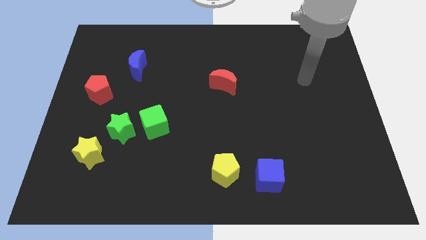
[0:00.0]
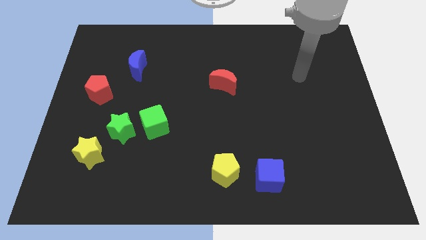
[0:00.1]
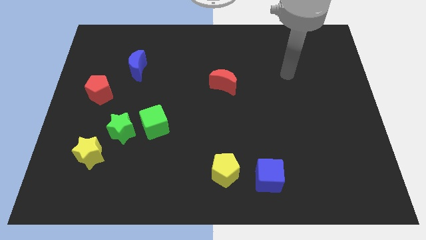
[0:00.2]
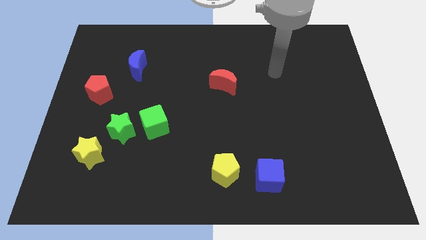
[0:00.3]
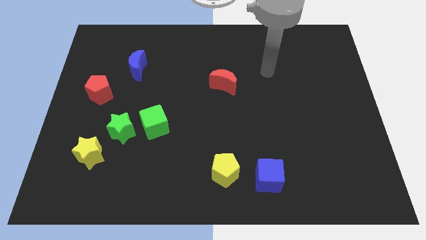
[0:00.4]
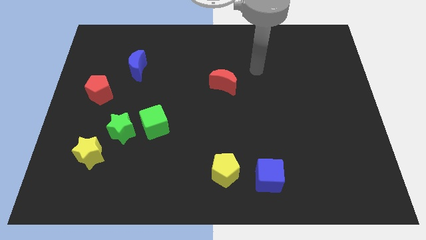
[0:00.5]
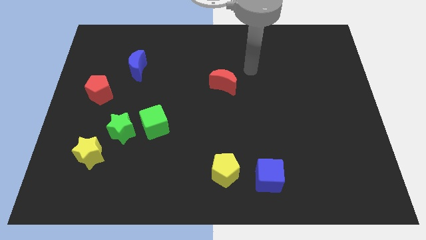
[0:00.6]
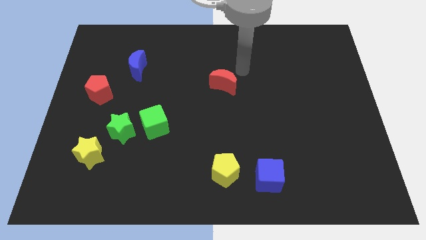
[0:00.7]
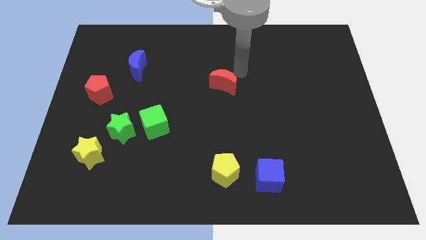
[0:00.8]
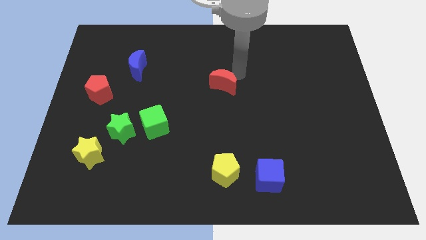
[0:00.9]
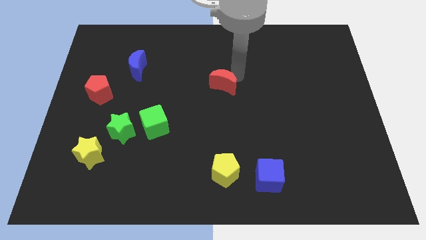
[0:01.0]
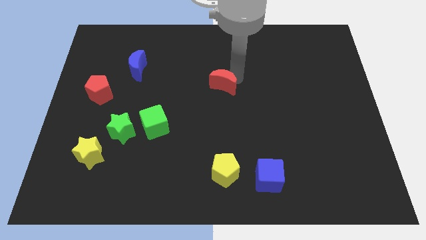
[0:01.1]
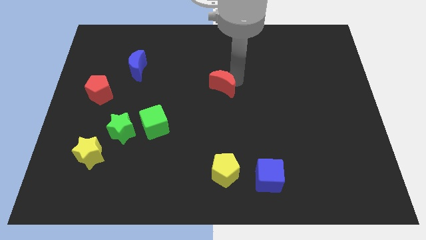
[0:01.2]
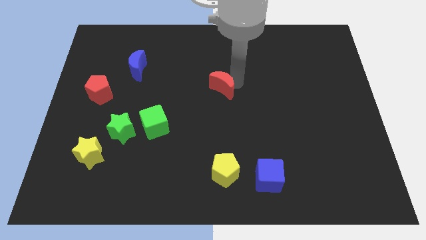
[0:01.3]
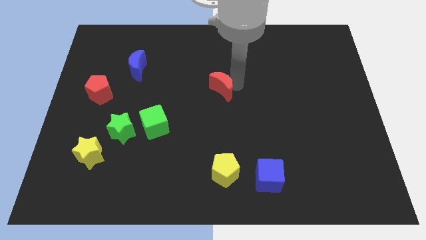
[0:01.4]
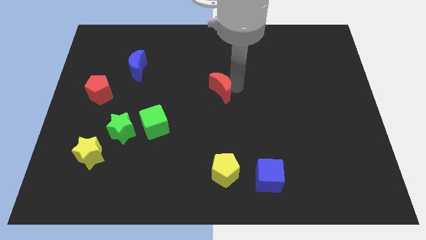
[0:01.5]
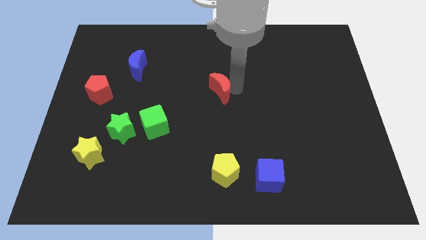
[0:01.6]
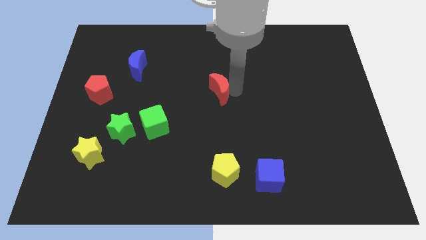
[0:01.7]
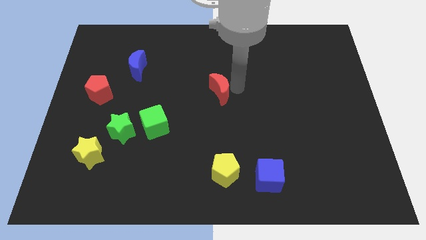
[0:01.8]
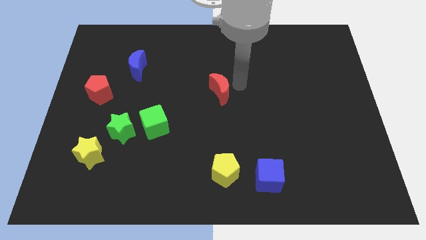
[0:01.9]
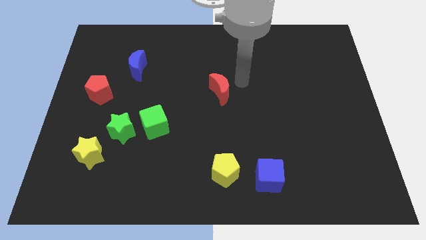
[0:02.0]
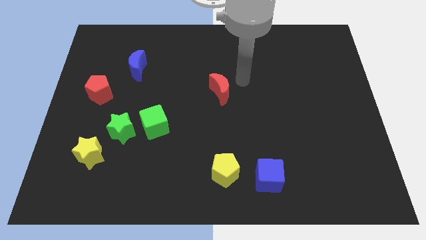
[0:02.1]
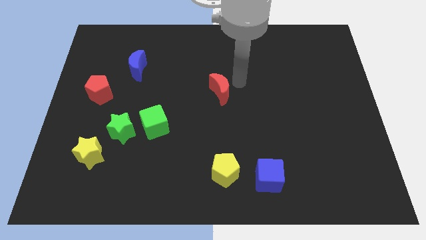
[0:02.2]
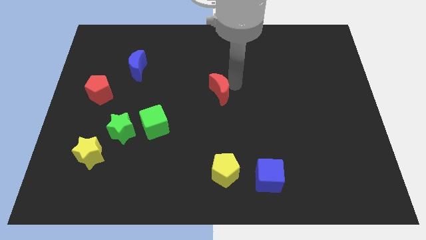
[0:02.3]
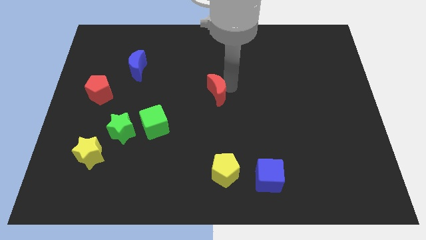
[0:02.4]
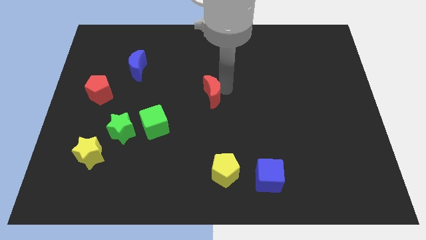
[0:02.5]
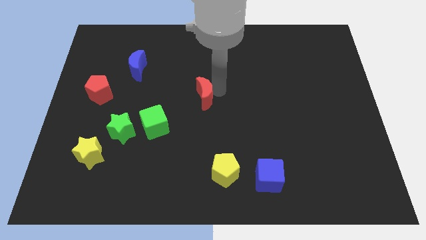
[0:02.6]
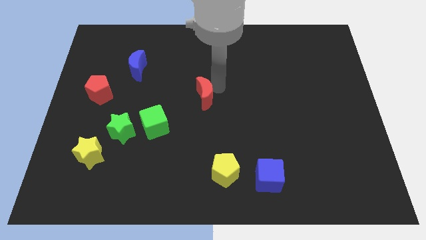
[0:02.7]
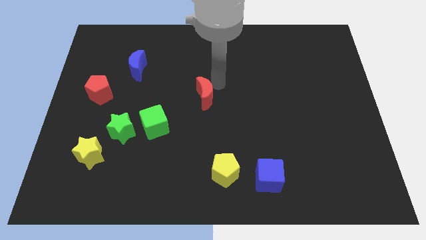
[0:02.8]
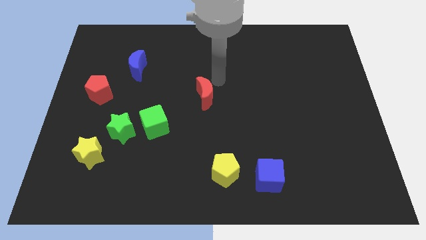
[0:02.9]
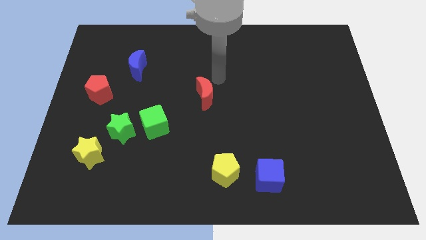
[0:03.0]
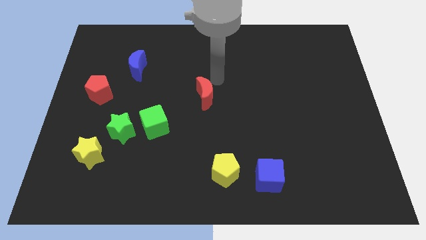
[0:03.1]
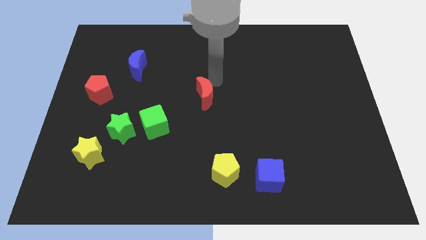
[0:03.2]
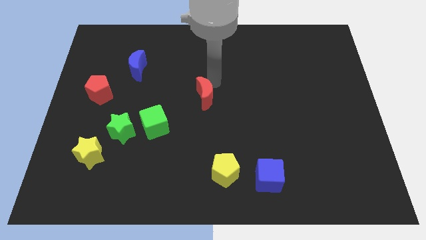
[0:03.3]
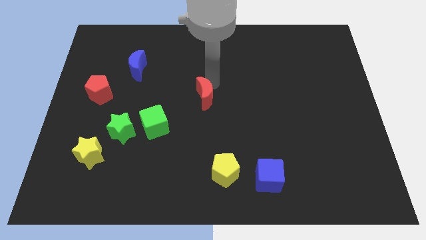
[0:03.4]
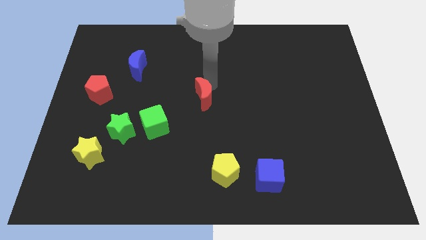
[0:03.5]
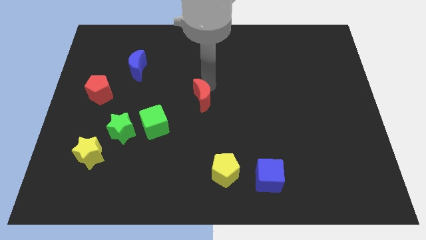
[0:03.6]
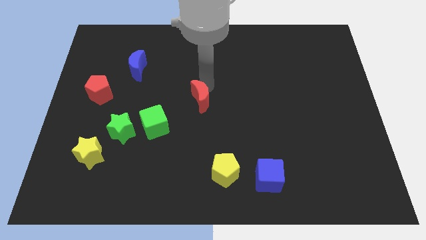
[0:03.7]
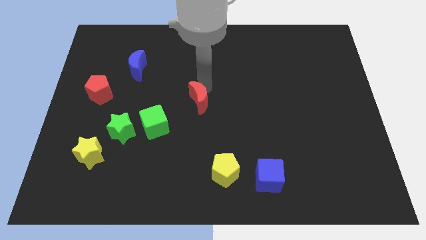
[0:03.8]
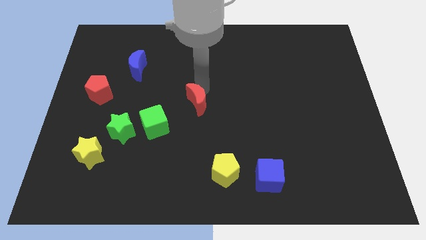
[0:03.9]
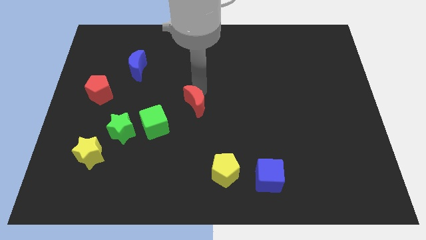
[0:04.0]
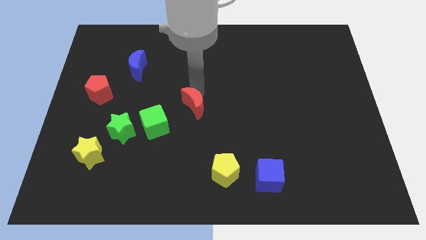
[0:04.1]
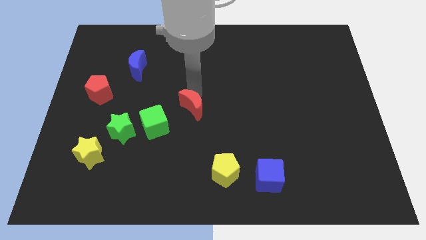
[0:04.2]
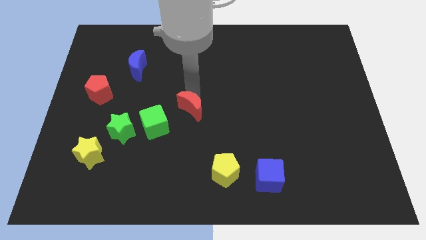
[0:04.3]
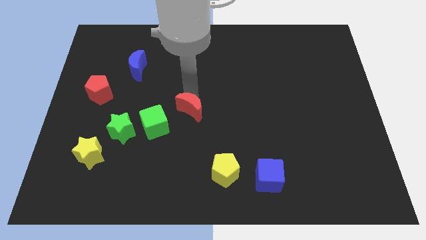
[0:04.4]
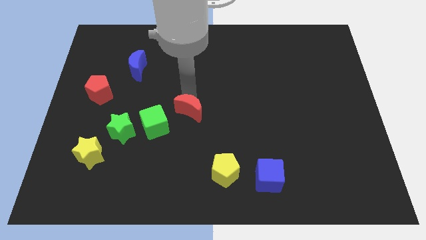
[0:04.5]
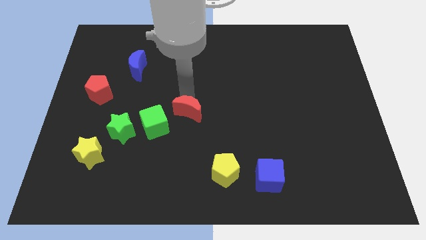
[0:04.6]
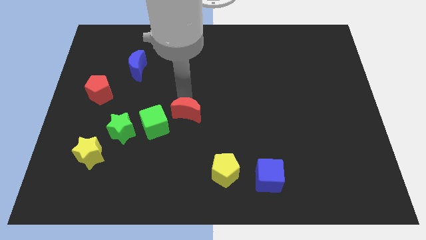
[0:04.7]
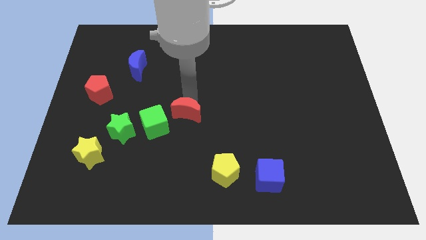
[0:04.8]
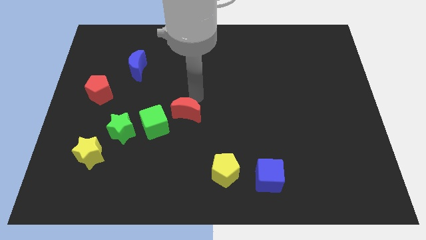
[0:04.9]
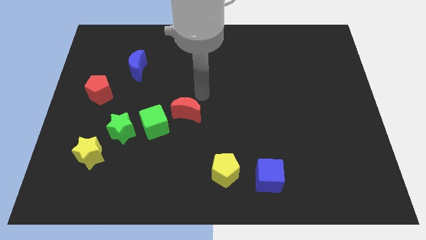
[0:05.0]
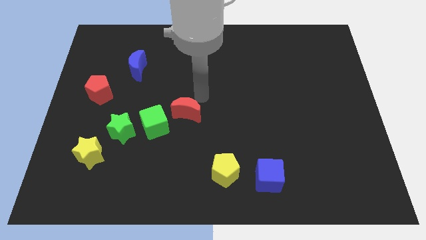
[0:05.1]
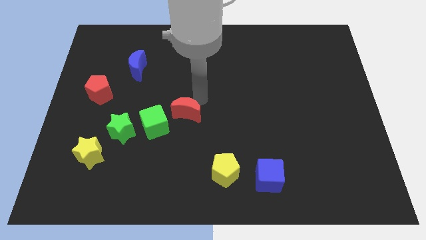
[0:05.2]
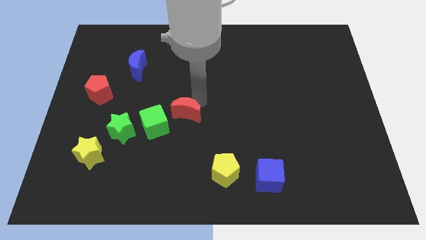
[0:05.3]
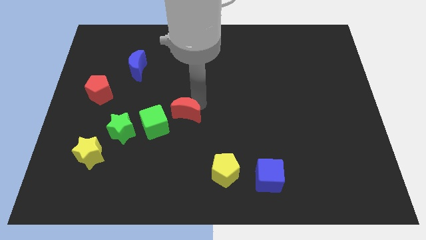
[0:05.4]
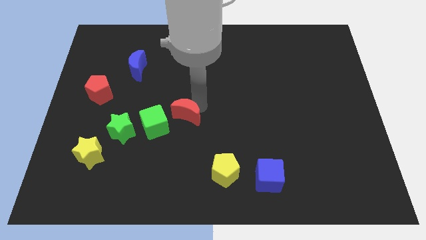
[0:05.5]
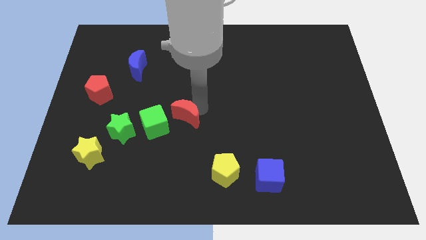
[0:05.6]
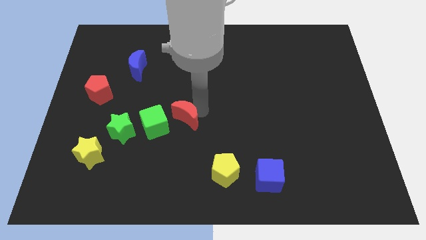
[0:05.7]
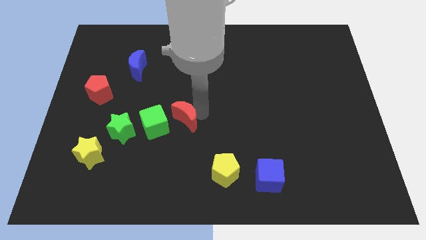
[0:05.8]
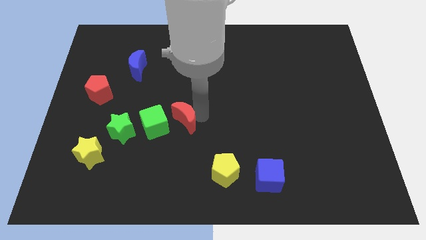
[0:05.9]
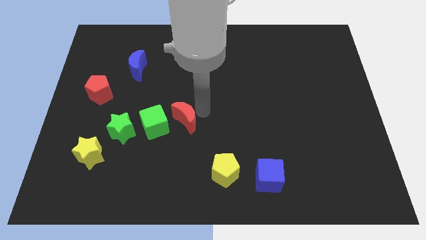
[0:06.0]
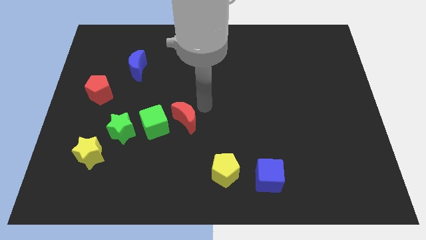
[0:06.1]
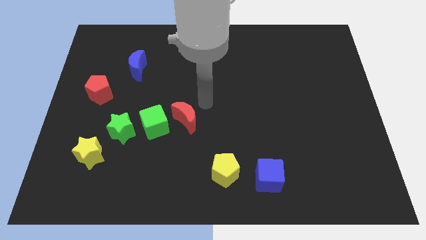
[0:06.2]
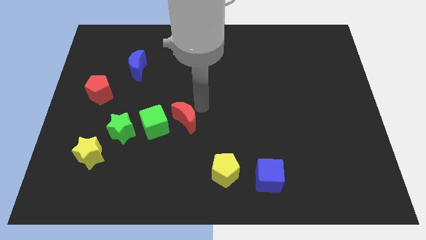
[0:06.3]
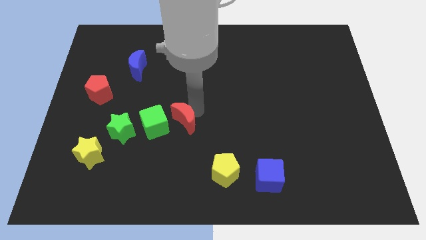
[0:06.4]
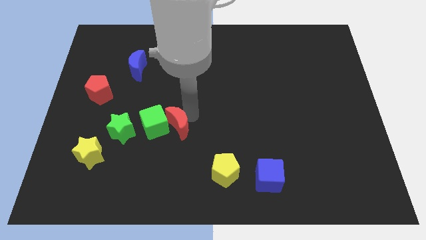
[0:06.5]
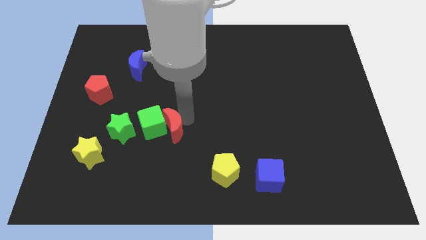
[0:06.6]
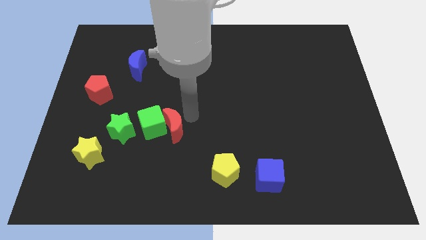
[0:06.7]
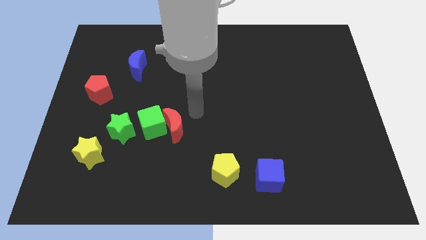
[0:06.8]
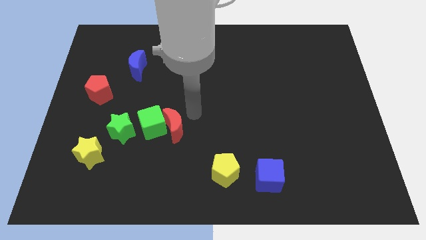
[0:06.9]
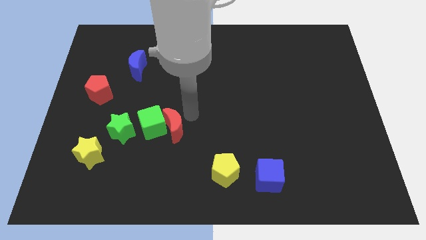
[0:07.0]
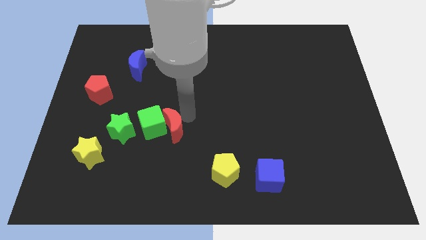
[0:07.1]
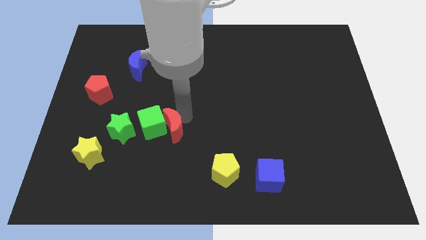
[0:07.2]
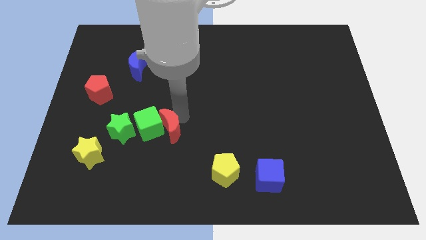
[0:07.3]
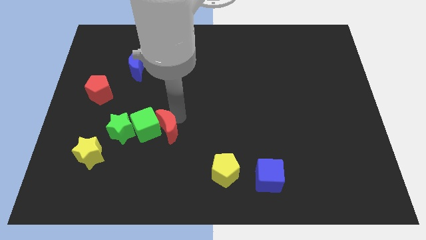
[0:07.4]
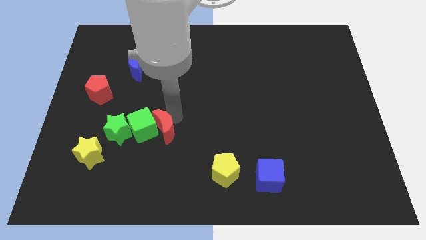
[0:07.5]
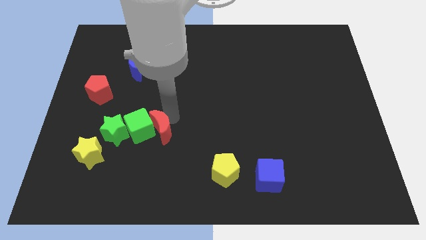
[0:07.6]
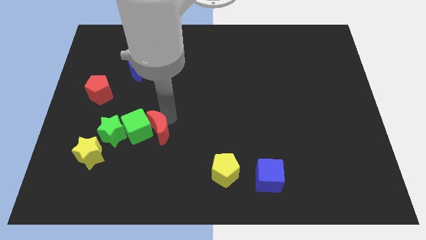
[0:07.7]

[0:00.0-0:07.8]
slide the red moon downwards and left
